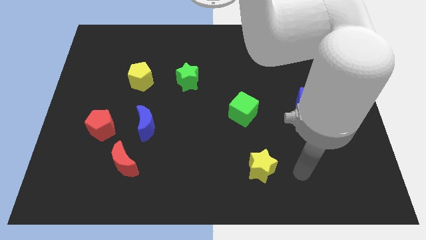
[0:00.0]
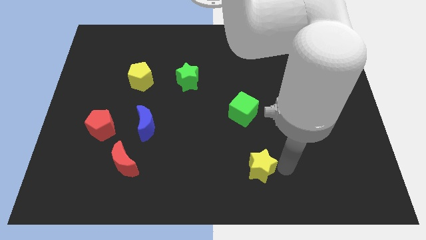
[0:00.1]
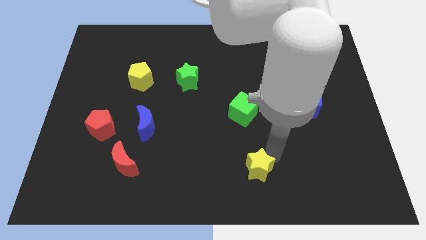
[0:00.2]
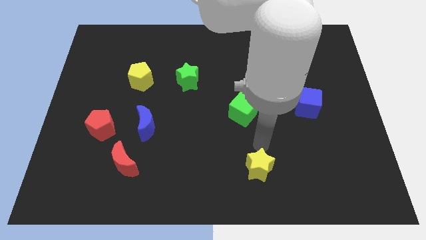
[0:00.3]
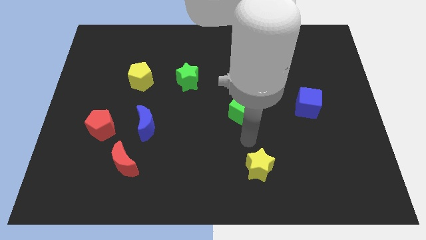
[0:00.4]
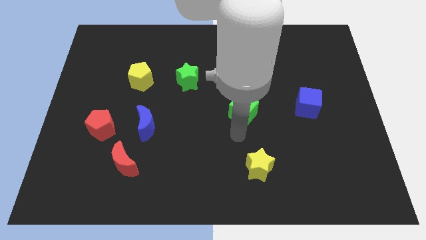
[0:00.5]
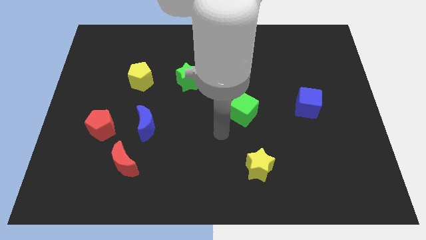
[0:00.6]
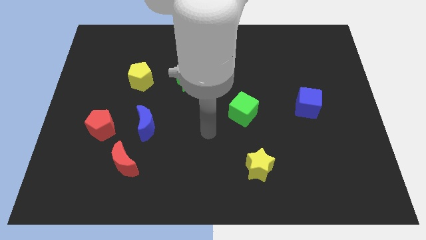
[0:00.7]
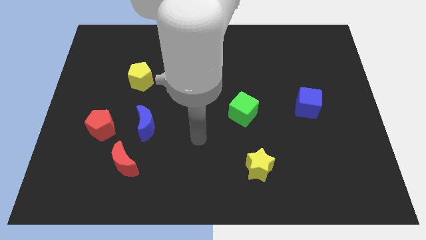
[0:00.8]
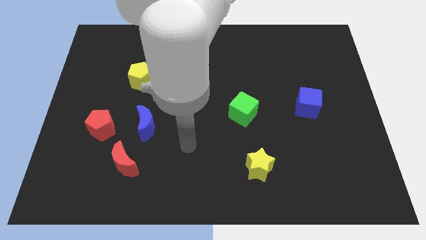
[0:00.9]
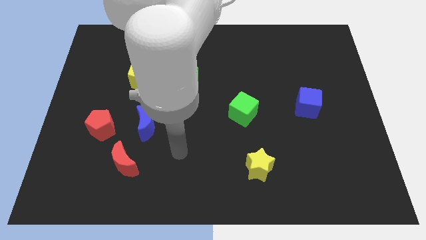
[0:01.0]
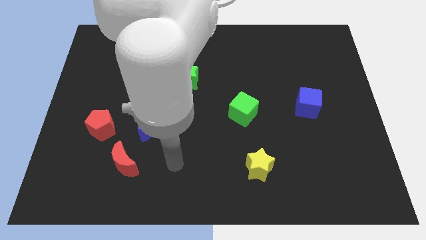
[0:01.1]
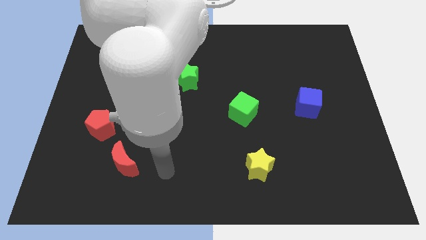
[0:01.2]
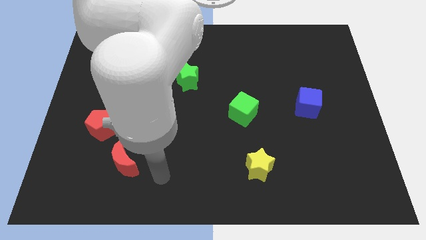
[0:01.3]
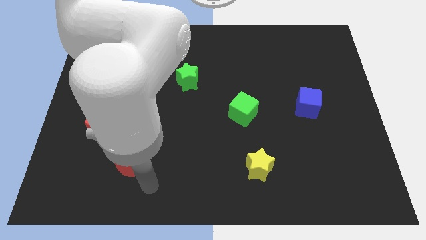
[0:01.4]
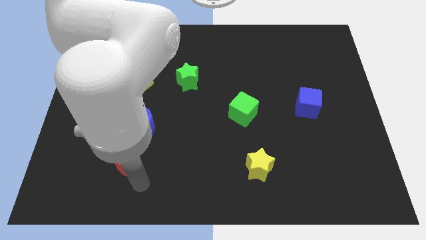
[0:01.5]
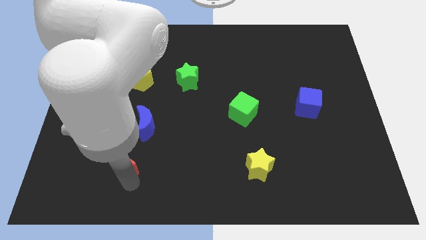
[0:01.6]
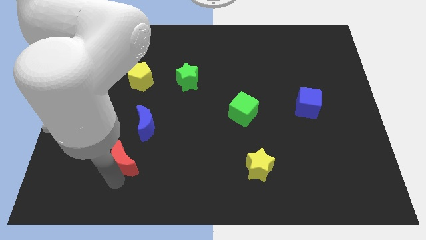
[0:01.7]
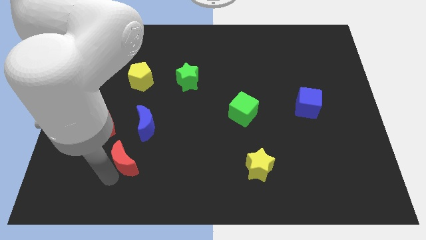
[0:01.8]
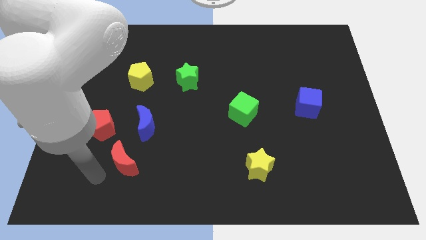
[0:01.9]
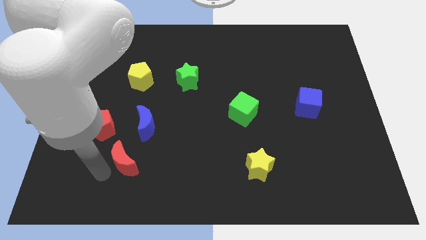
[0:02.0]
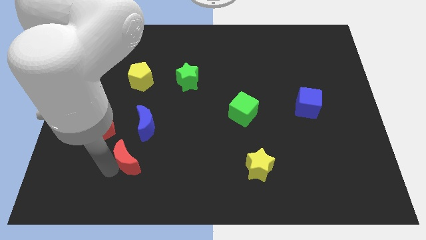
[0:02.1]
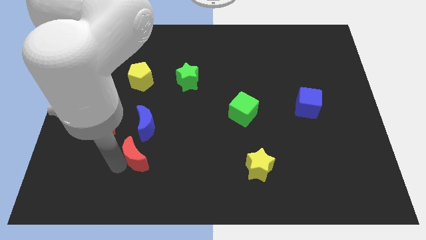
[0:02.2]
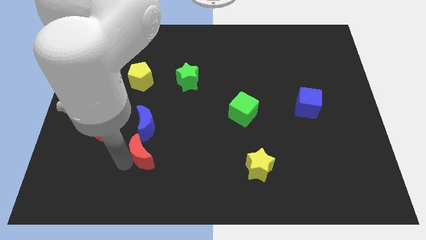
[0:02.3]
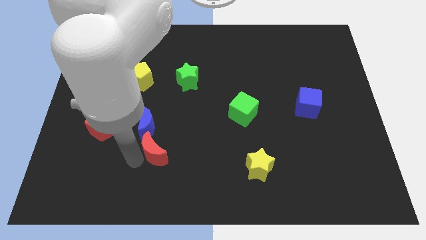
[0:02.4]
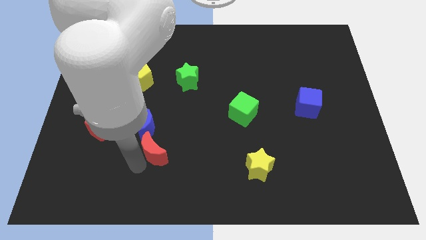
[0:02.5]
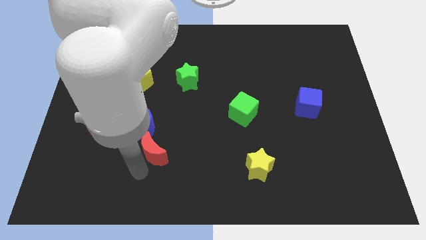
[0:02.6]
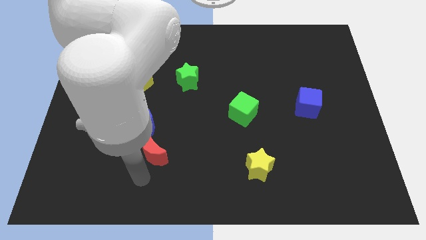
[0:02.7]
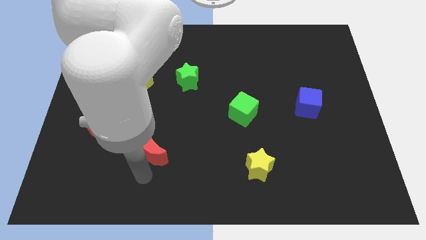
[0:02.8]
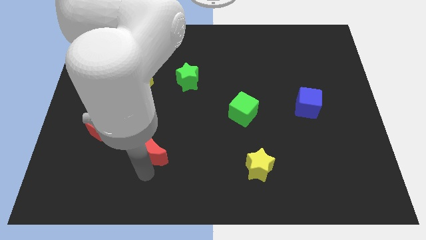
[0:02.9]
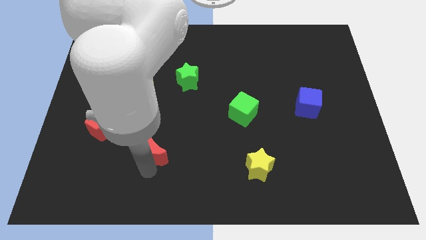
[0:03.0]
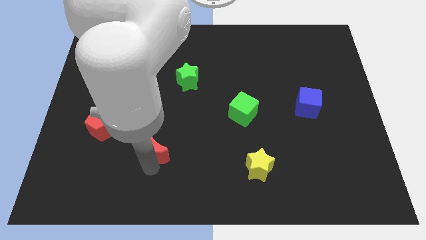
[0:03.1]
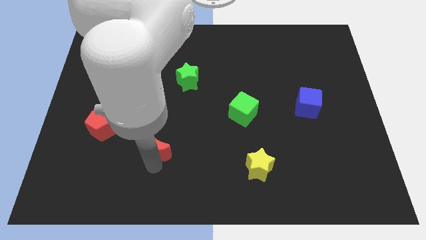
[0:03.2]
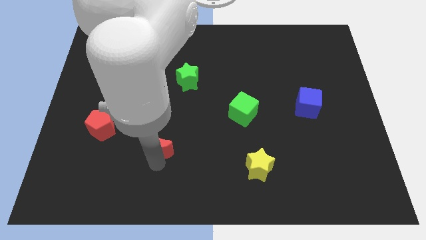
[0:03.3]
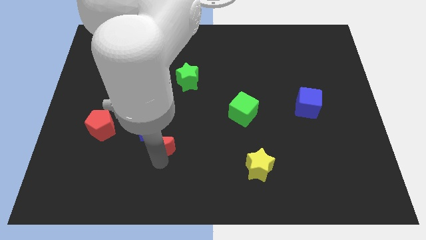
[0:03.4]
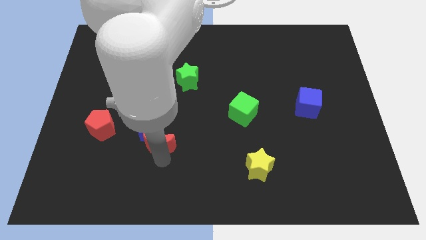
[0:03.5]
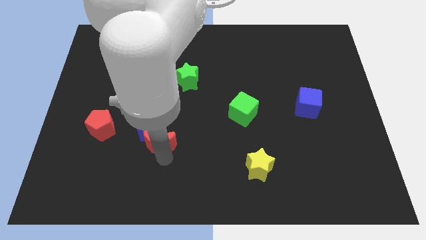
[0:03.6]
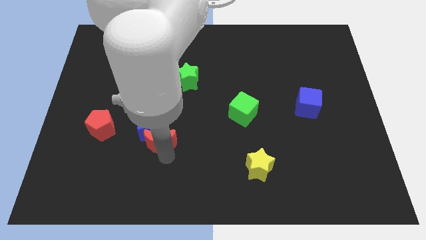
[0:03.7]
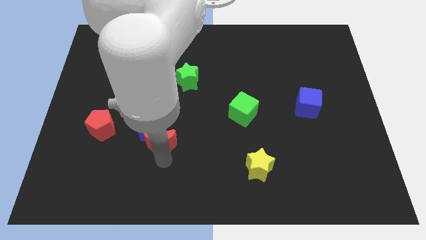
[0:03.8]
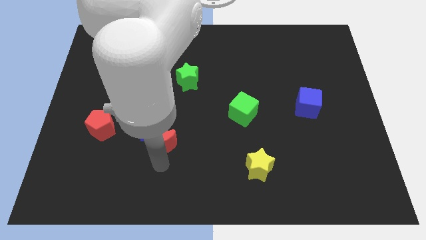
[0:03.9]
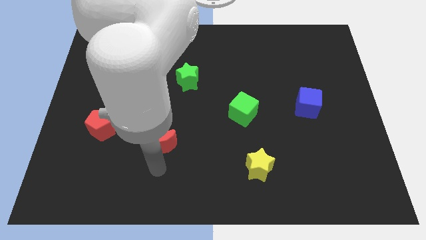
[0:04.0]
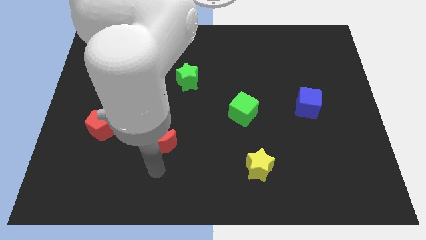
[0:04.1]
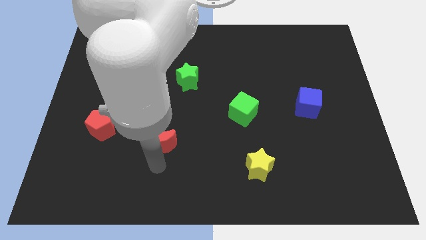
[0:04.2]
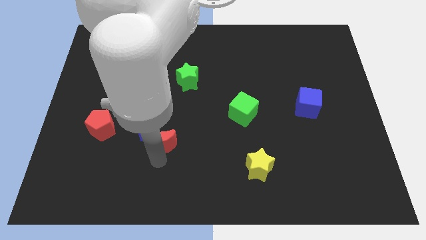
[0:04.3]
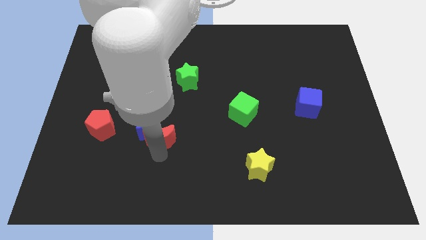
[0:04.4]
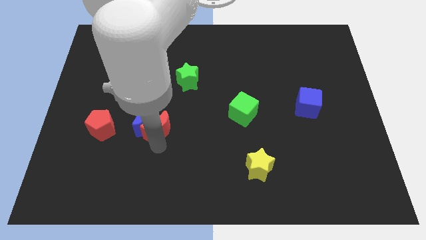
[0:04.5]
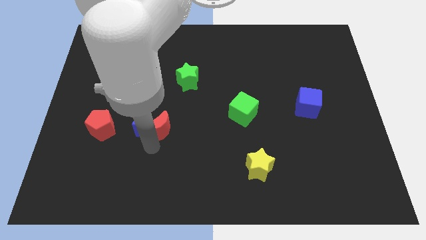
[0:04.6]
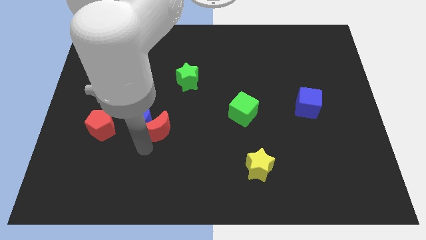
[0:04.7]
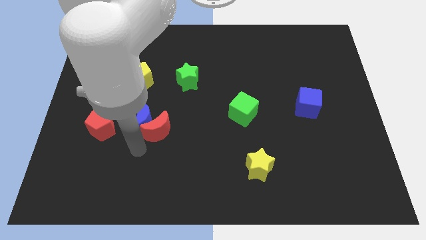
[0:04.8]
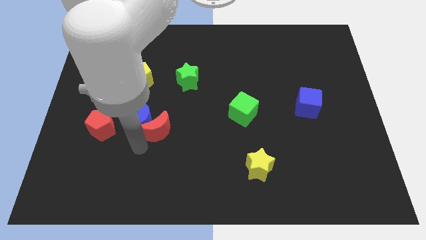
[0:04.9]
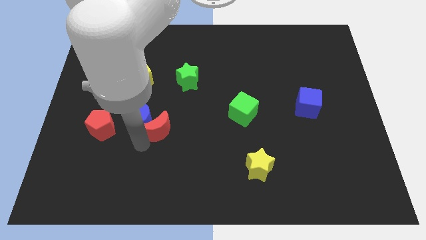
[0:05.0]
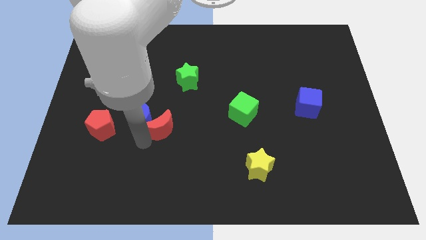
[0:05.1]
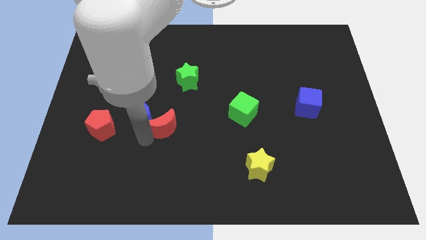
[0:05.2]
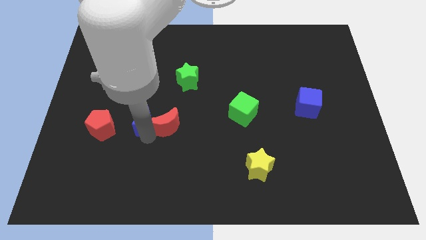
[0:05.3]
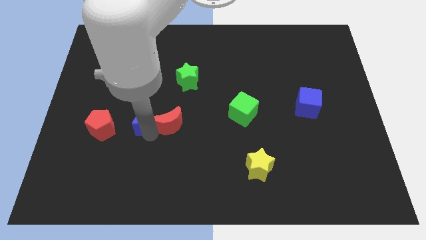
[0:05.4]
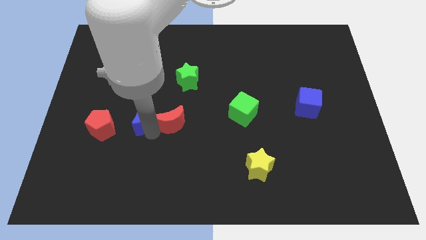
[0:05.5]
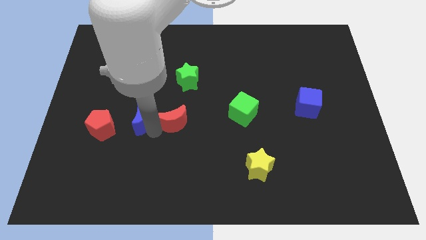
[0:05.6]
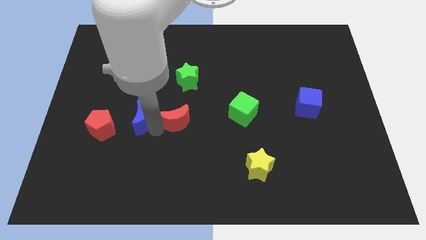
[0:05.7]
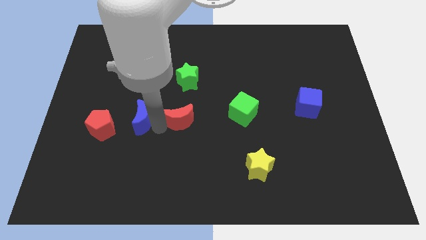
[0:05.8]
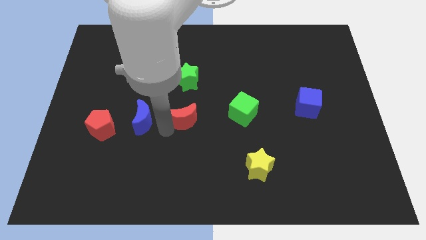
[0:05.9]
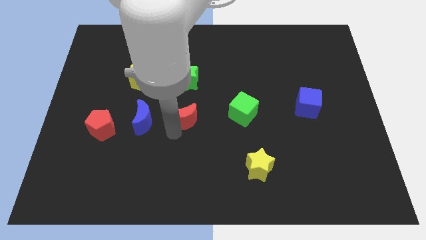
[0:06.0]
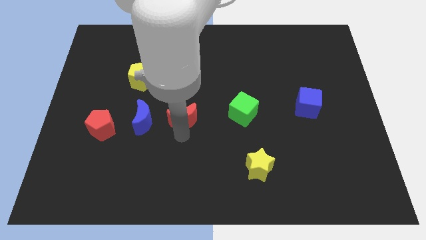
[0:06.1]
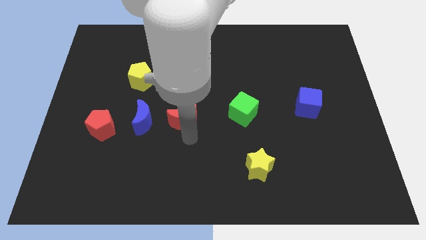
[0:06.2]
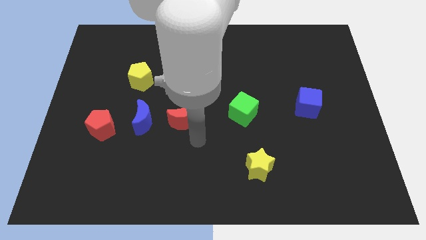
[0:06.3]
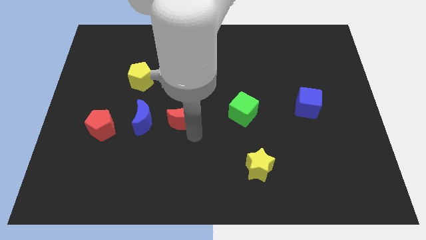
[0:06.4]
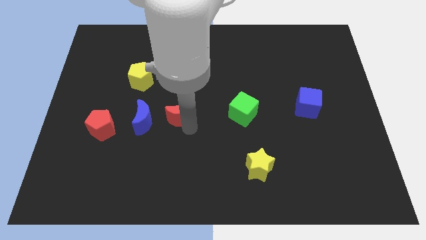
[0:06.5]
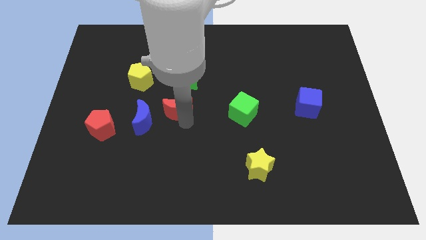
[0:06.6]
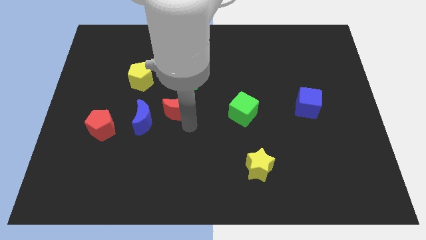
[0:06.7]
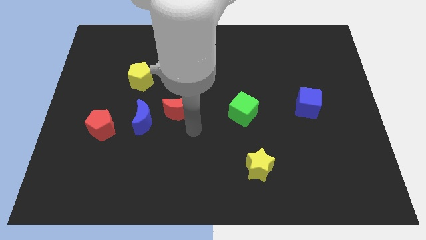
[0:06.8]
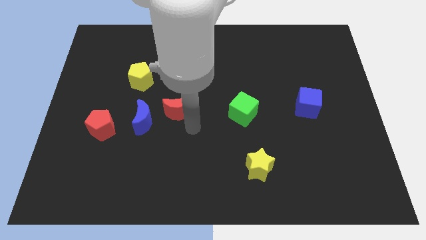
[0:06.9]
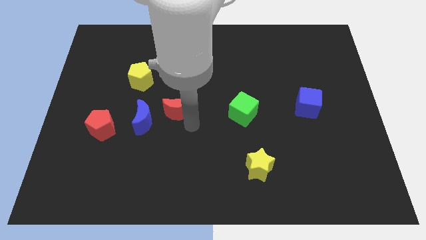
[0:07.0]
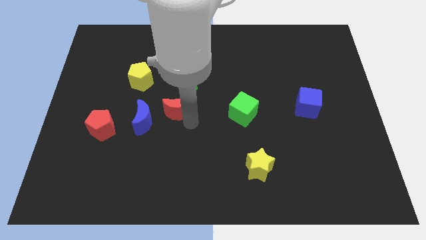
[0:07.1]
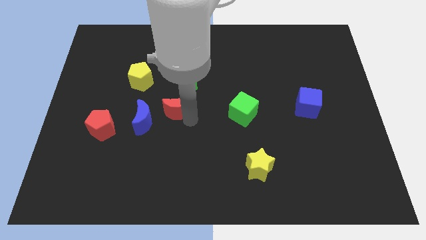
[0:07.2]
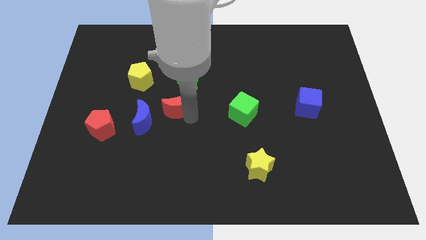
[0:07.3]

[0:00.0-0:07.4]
move the red moon to the bottom left of the green star
